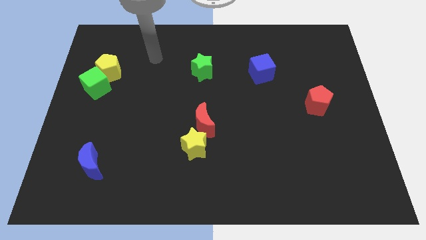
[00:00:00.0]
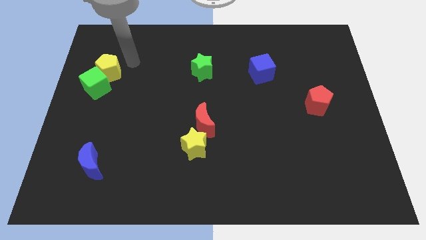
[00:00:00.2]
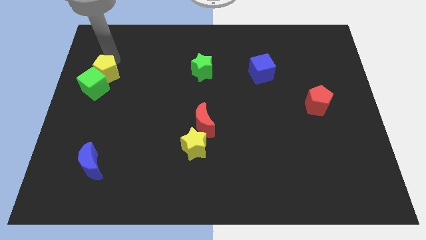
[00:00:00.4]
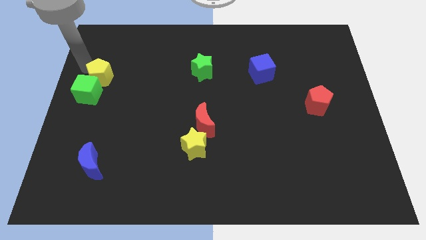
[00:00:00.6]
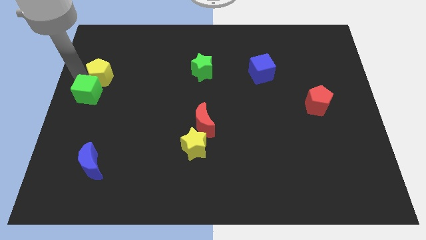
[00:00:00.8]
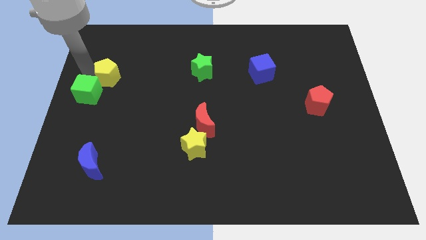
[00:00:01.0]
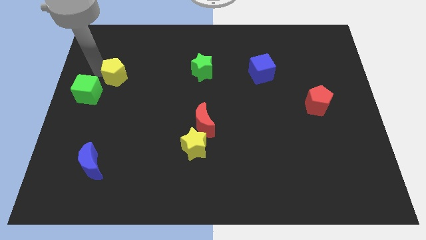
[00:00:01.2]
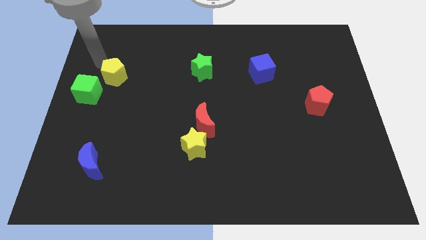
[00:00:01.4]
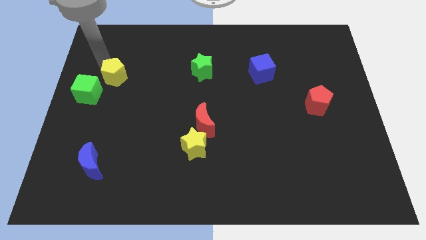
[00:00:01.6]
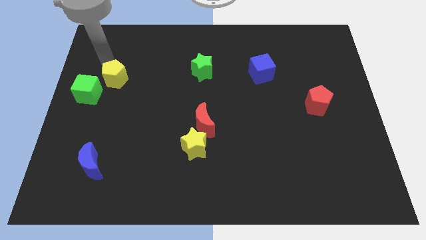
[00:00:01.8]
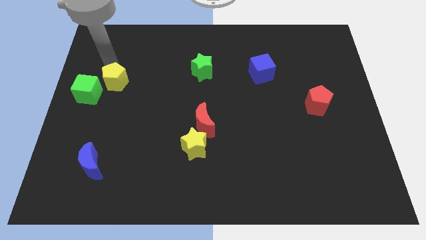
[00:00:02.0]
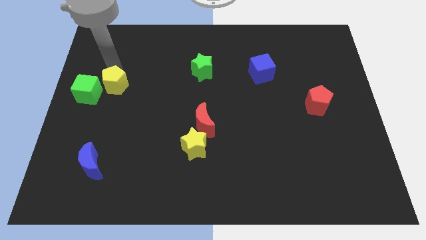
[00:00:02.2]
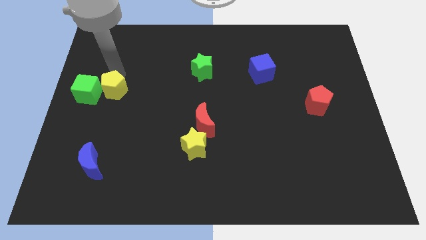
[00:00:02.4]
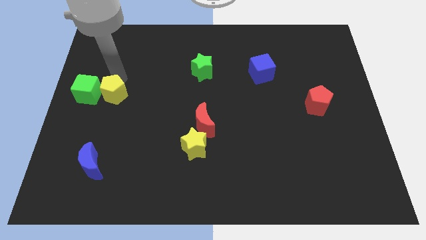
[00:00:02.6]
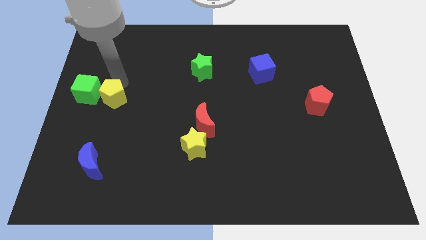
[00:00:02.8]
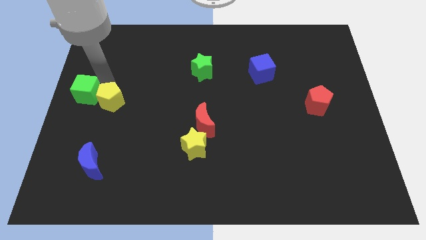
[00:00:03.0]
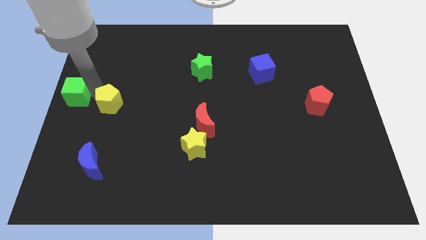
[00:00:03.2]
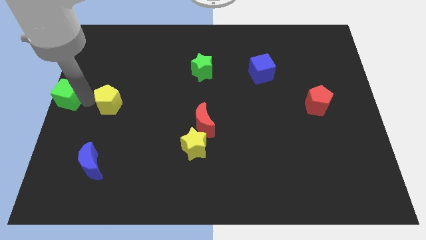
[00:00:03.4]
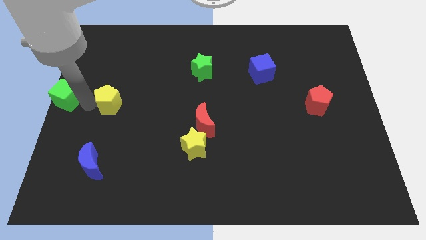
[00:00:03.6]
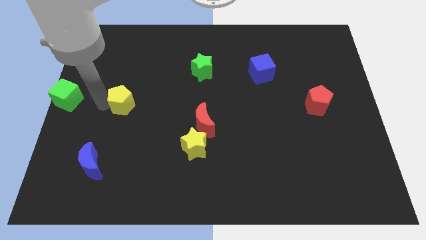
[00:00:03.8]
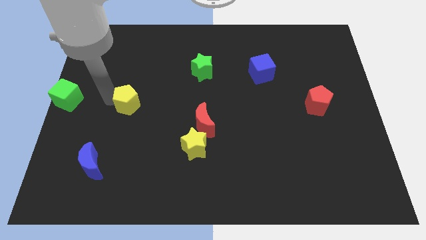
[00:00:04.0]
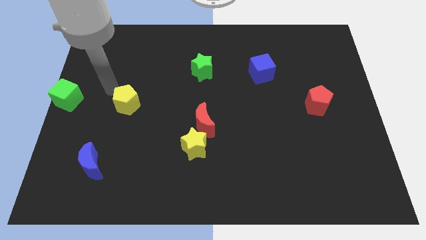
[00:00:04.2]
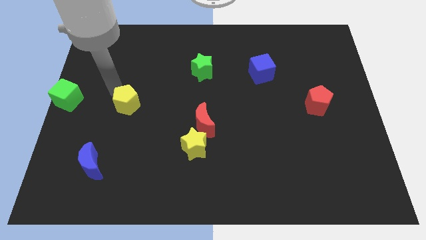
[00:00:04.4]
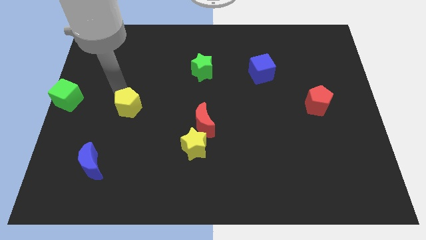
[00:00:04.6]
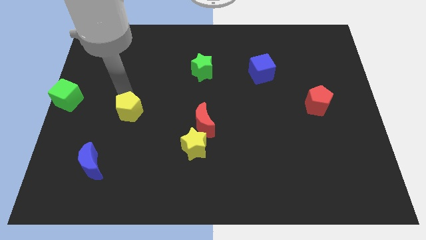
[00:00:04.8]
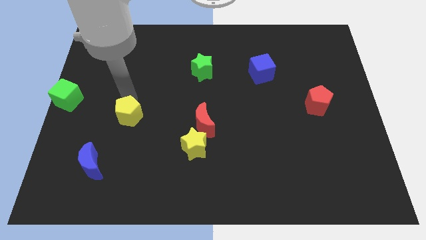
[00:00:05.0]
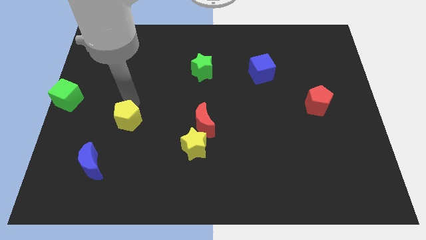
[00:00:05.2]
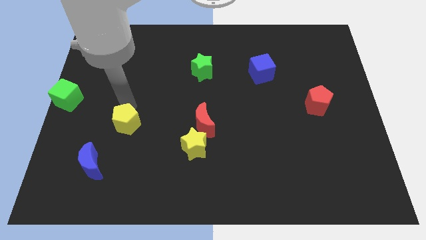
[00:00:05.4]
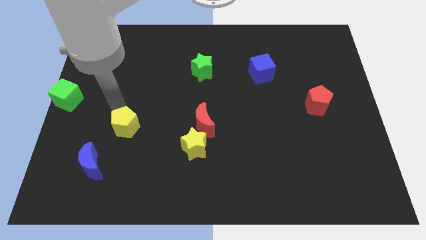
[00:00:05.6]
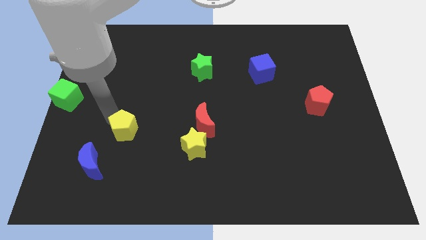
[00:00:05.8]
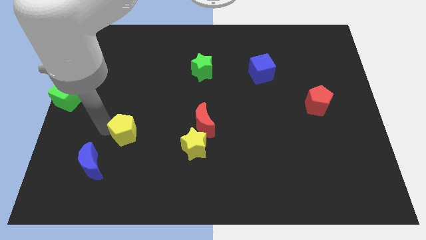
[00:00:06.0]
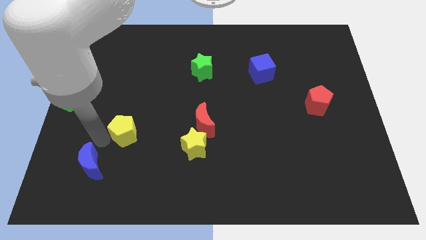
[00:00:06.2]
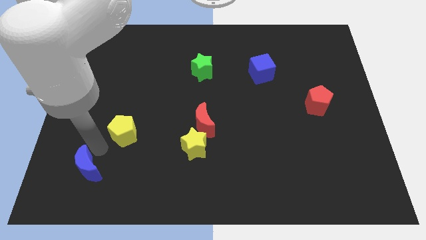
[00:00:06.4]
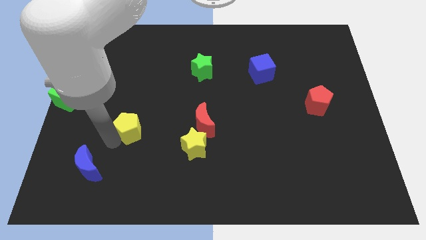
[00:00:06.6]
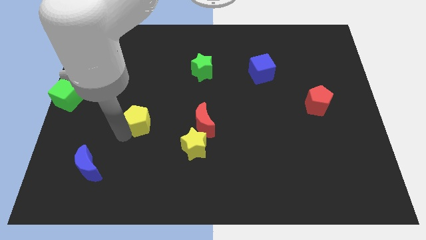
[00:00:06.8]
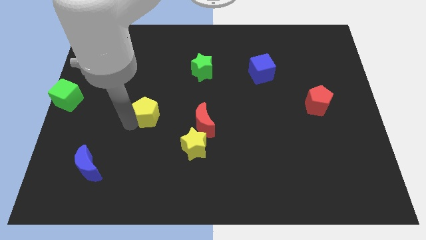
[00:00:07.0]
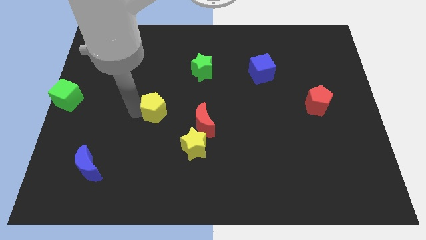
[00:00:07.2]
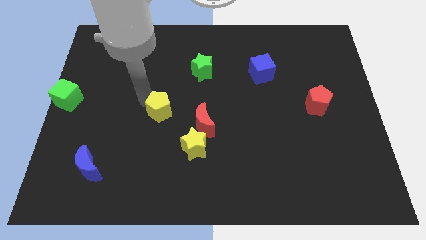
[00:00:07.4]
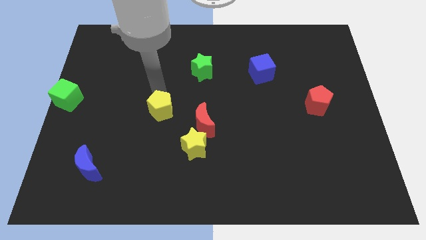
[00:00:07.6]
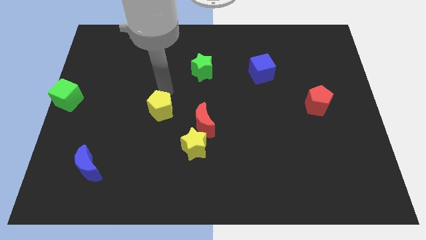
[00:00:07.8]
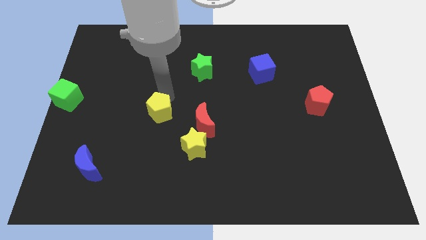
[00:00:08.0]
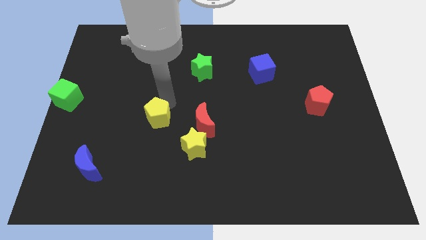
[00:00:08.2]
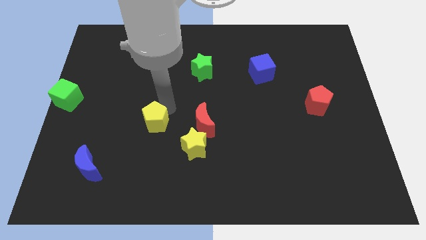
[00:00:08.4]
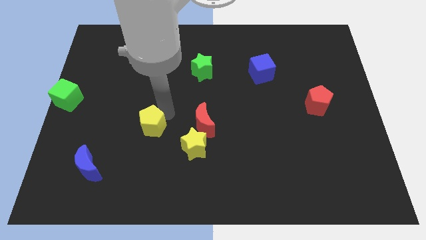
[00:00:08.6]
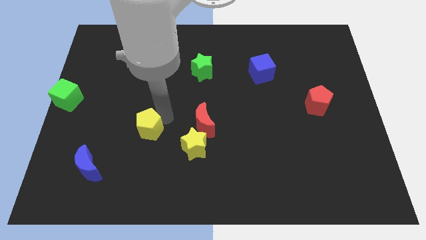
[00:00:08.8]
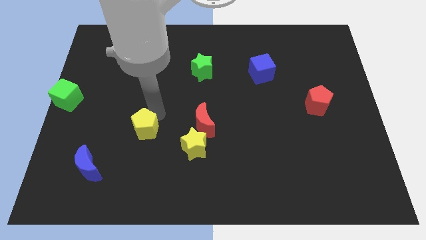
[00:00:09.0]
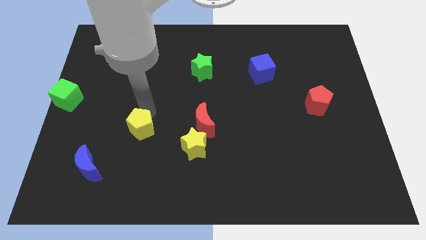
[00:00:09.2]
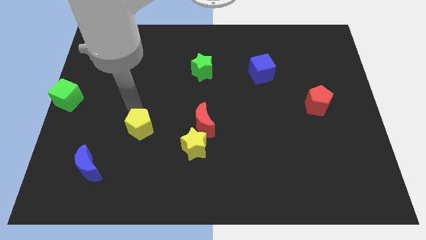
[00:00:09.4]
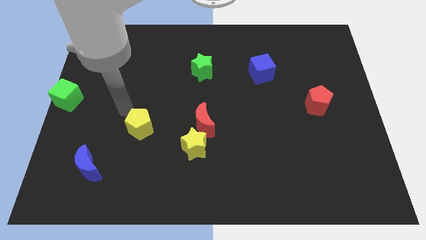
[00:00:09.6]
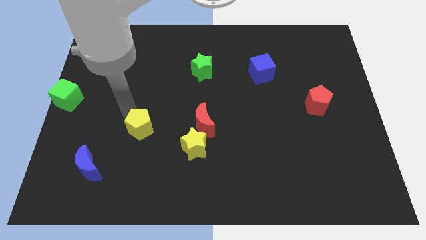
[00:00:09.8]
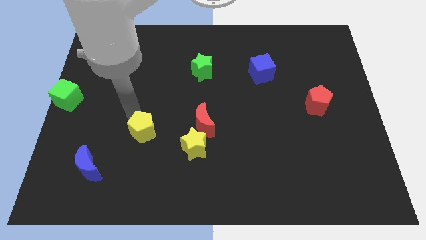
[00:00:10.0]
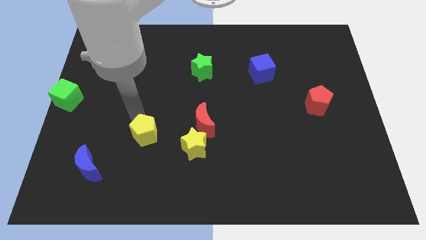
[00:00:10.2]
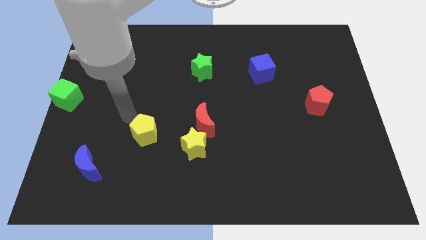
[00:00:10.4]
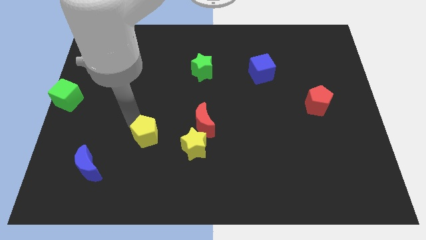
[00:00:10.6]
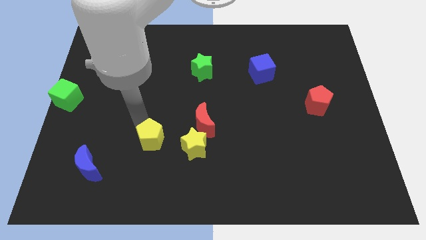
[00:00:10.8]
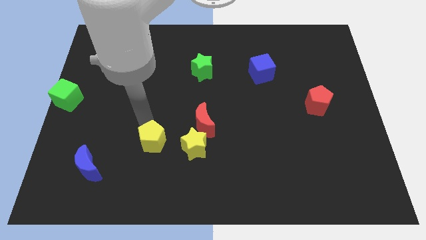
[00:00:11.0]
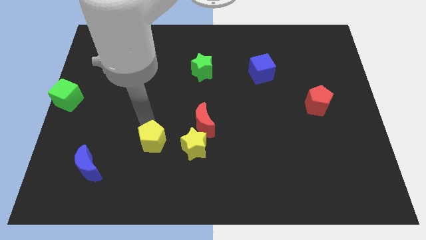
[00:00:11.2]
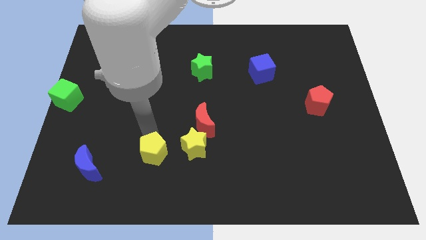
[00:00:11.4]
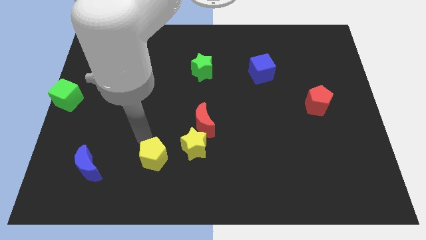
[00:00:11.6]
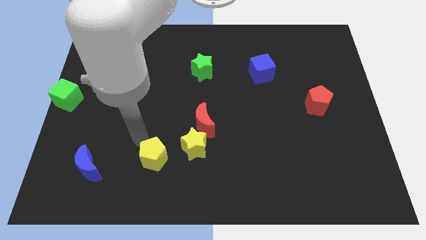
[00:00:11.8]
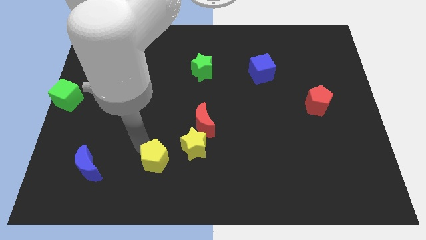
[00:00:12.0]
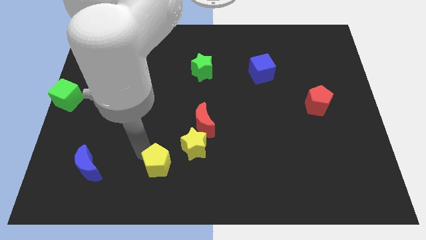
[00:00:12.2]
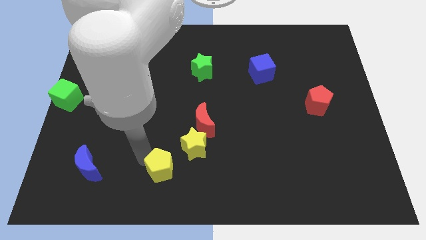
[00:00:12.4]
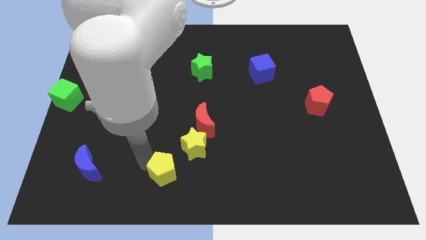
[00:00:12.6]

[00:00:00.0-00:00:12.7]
push the yellow pentagon to the bottom

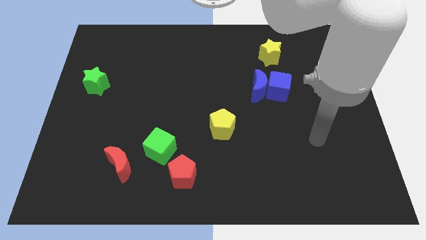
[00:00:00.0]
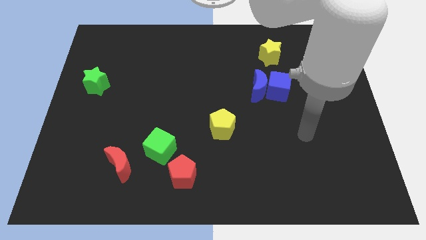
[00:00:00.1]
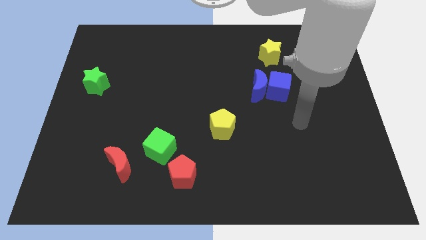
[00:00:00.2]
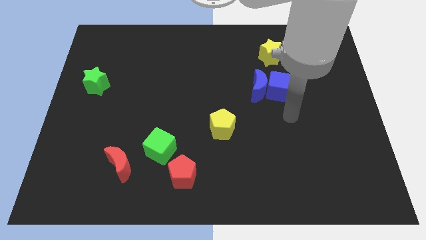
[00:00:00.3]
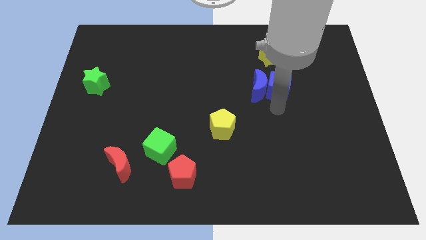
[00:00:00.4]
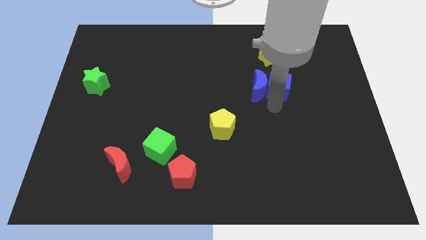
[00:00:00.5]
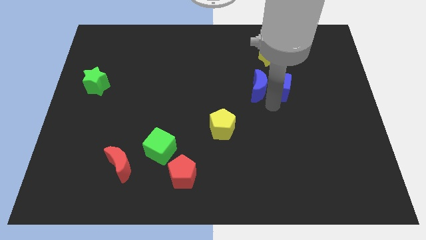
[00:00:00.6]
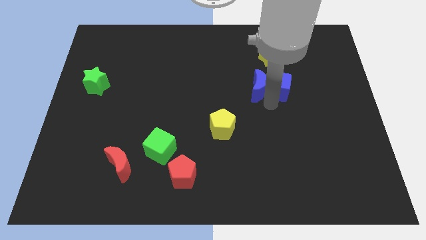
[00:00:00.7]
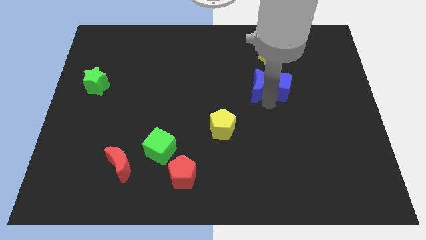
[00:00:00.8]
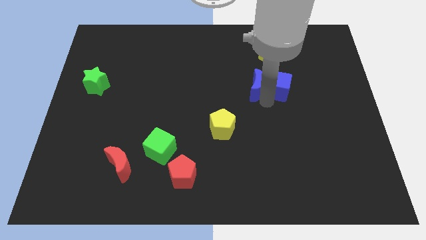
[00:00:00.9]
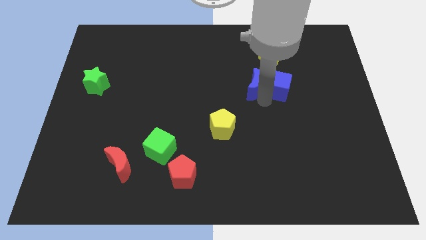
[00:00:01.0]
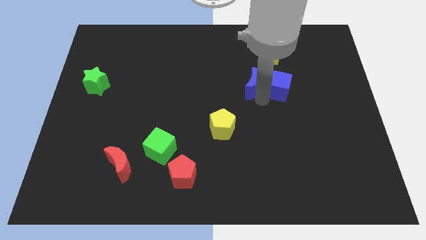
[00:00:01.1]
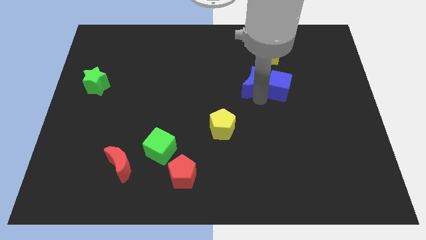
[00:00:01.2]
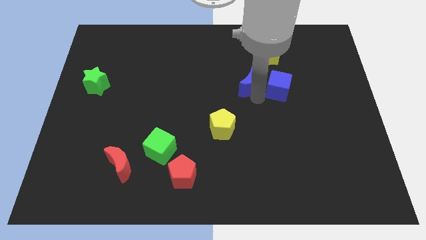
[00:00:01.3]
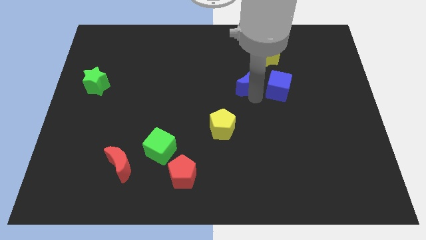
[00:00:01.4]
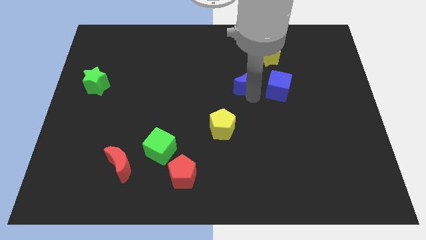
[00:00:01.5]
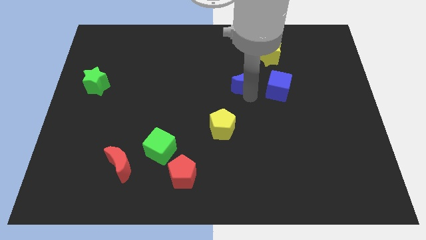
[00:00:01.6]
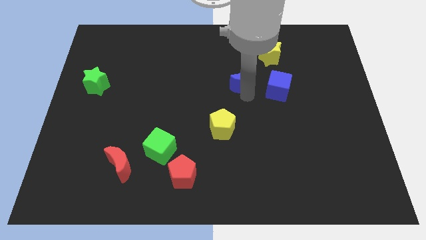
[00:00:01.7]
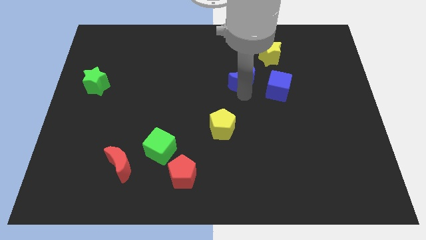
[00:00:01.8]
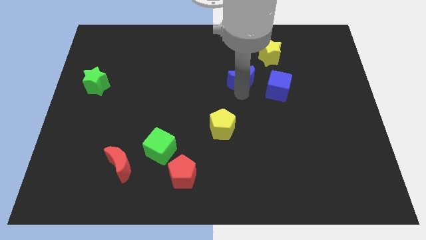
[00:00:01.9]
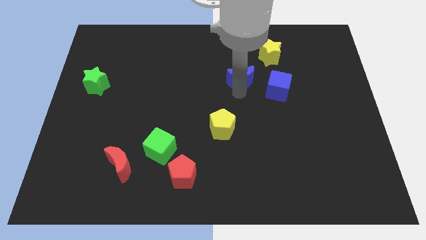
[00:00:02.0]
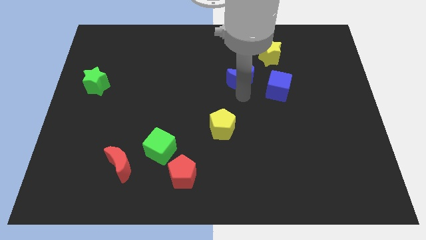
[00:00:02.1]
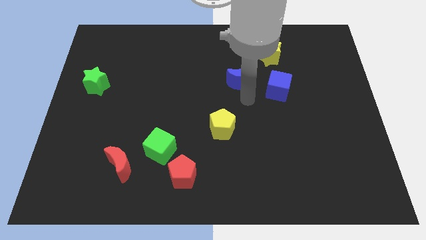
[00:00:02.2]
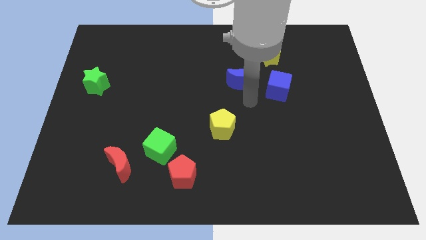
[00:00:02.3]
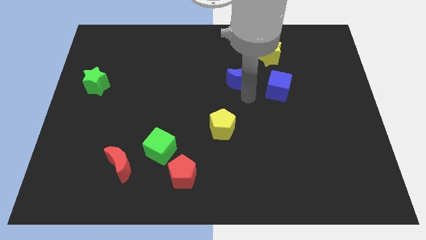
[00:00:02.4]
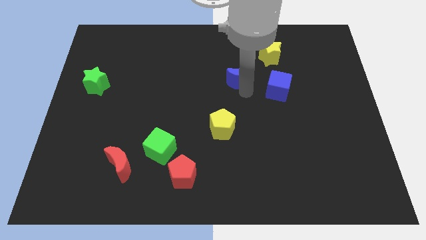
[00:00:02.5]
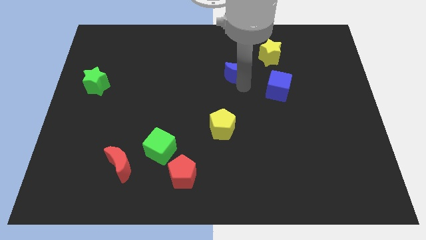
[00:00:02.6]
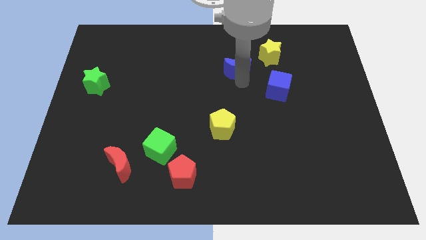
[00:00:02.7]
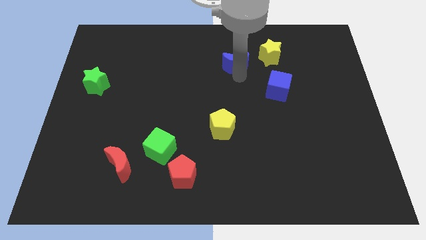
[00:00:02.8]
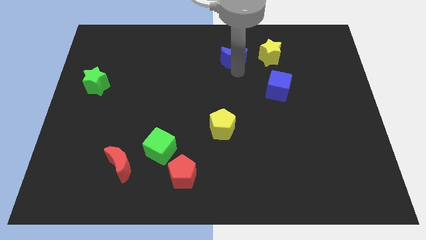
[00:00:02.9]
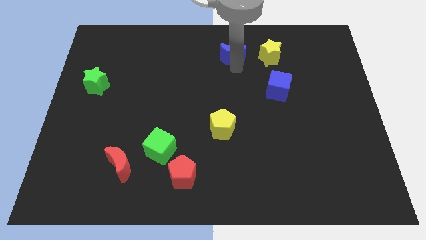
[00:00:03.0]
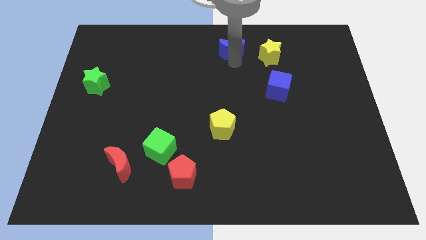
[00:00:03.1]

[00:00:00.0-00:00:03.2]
put the blue moon to the top
